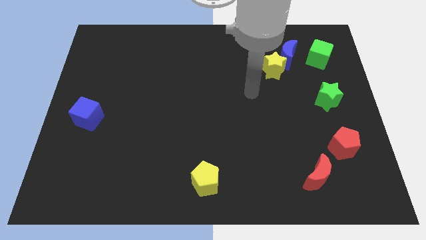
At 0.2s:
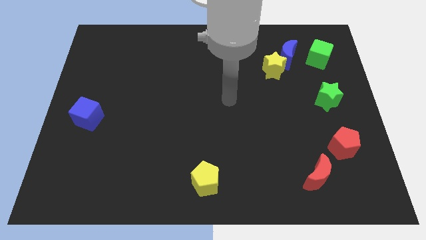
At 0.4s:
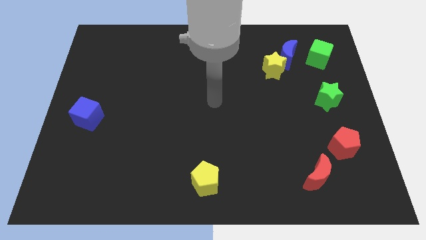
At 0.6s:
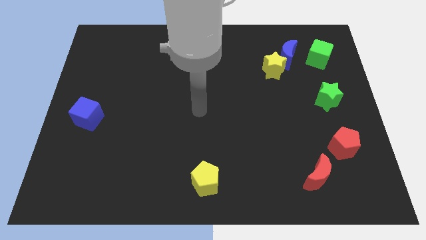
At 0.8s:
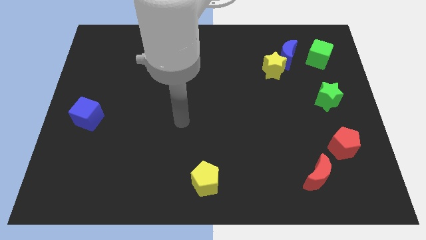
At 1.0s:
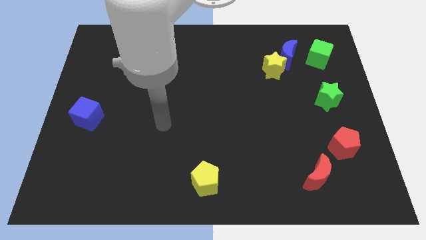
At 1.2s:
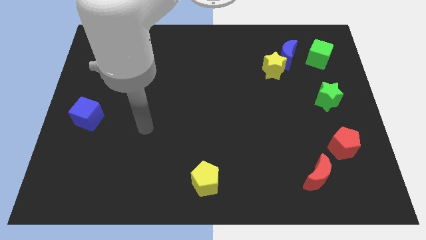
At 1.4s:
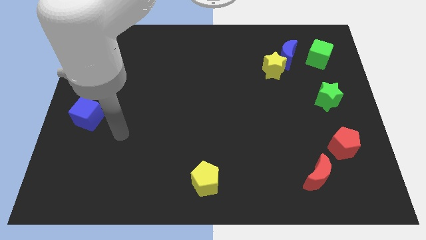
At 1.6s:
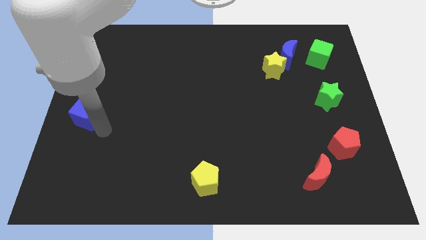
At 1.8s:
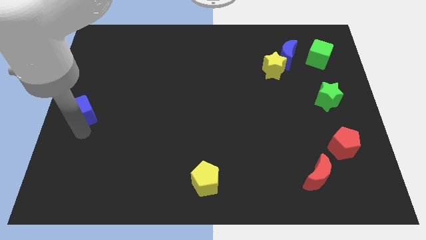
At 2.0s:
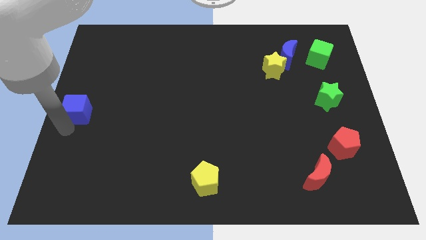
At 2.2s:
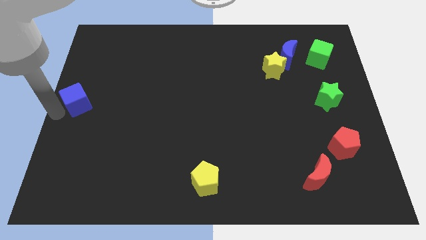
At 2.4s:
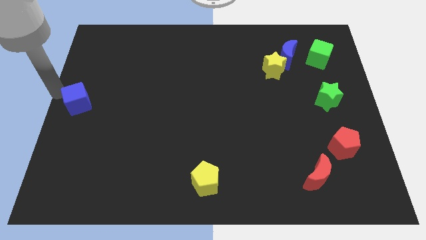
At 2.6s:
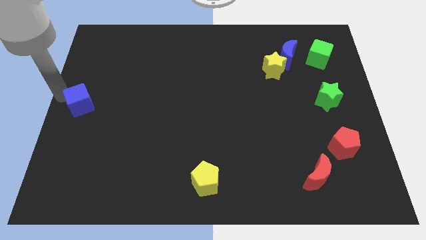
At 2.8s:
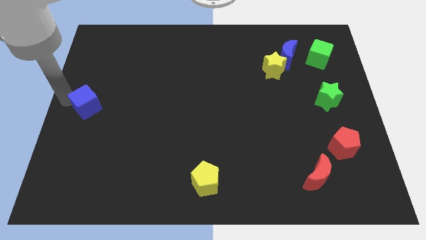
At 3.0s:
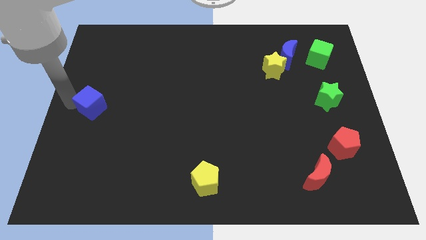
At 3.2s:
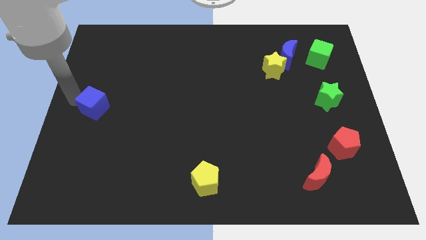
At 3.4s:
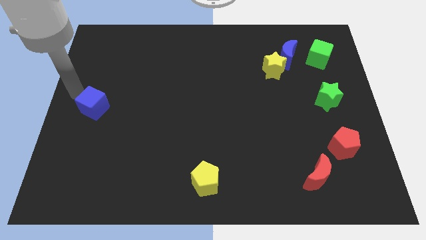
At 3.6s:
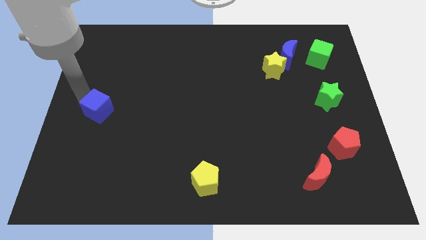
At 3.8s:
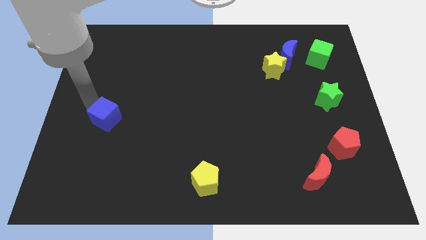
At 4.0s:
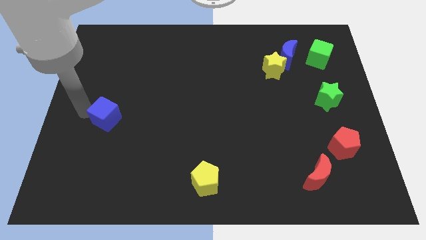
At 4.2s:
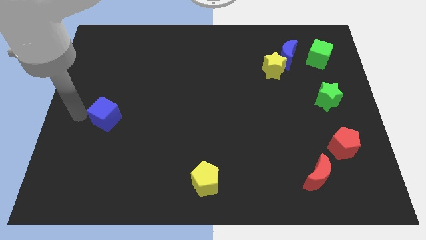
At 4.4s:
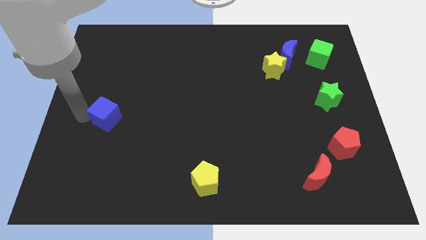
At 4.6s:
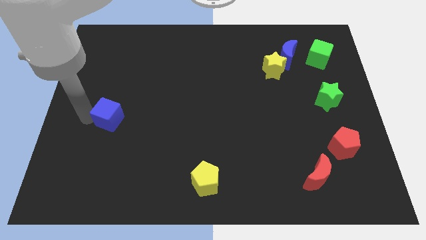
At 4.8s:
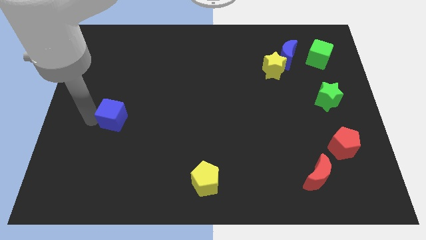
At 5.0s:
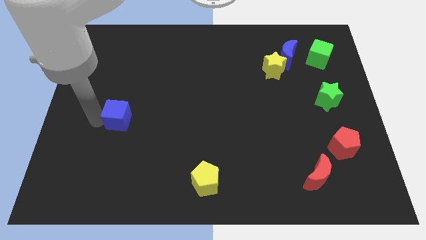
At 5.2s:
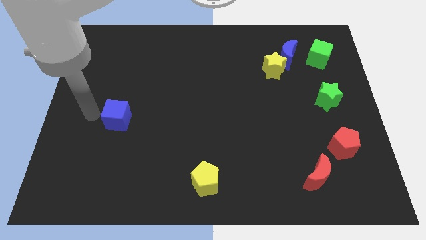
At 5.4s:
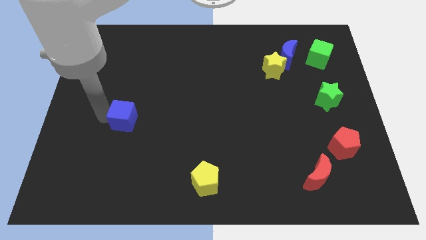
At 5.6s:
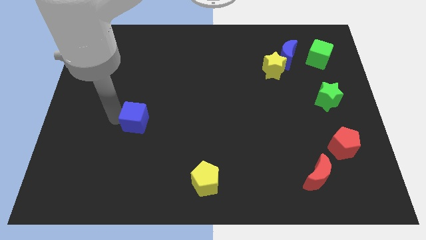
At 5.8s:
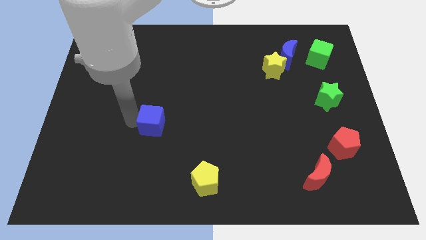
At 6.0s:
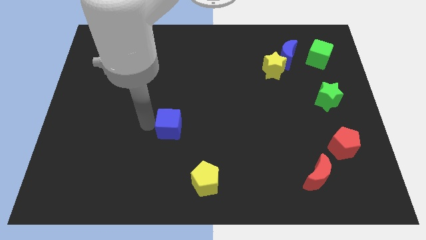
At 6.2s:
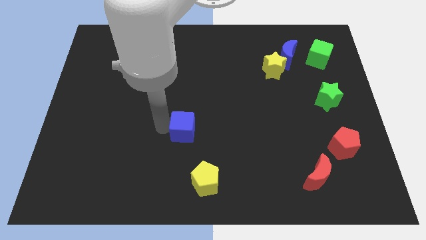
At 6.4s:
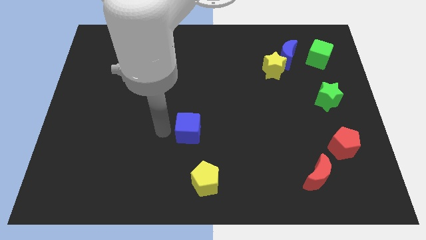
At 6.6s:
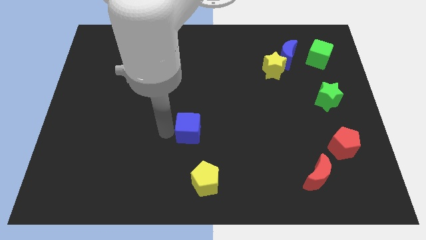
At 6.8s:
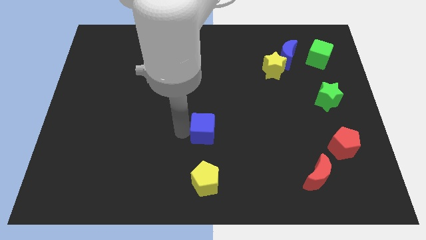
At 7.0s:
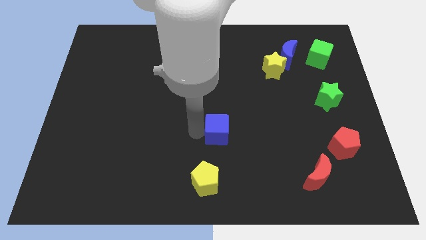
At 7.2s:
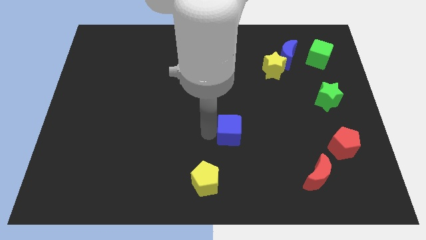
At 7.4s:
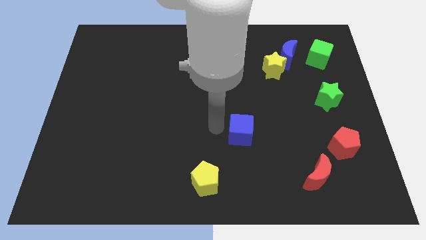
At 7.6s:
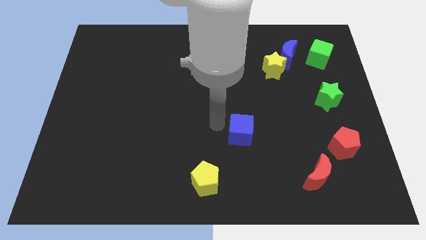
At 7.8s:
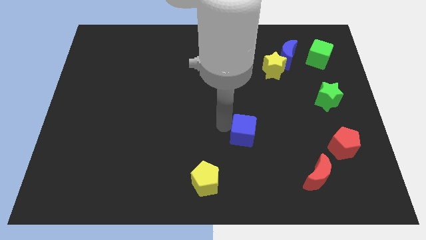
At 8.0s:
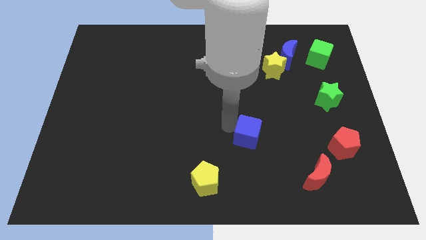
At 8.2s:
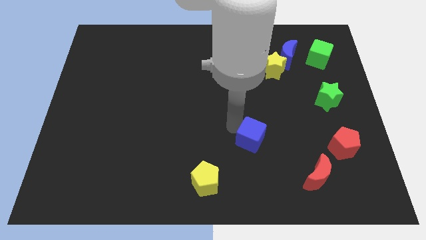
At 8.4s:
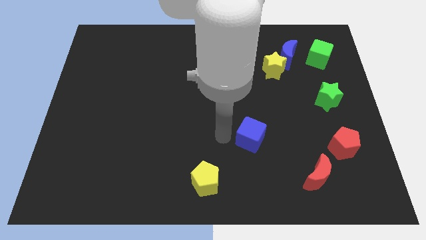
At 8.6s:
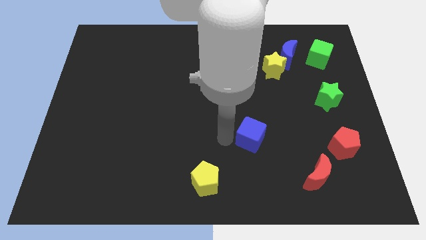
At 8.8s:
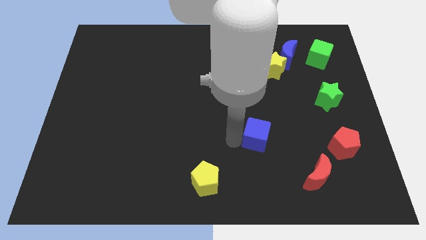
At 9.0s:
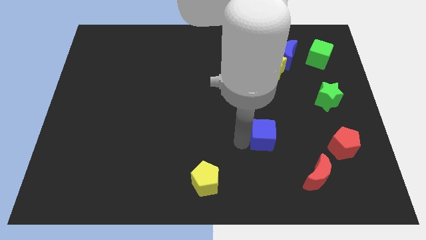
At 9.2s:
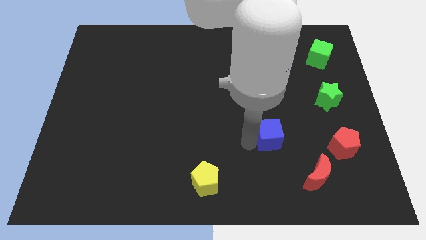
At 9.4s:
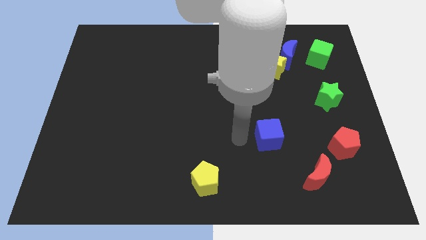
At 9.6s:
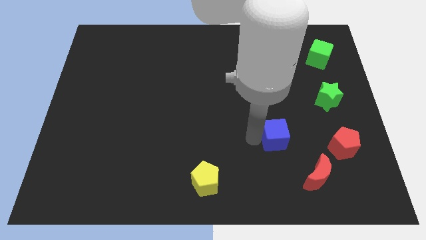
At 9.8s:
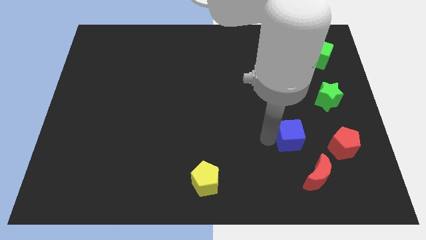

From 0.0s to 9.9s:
move the blue cube to the top of the red moon

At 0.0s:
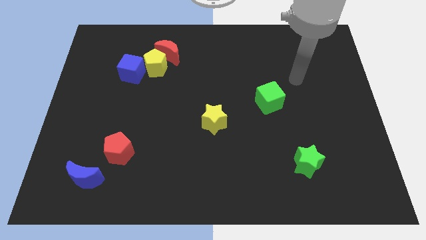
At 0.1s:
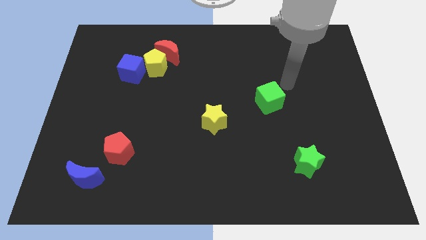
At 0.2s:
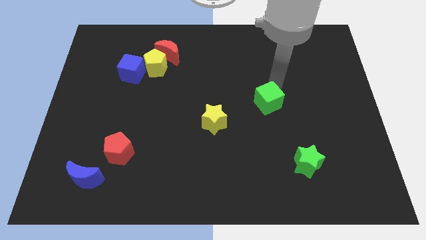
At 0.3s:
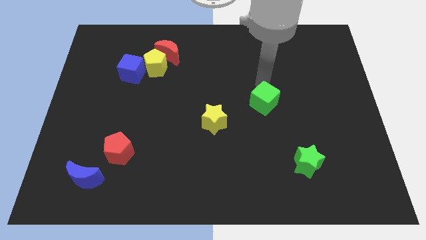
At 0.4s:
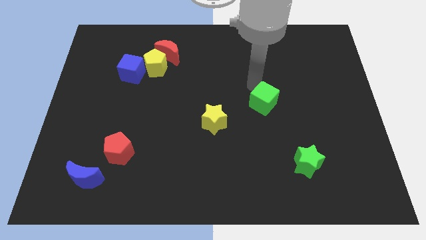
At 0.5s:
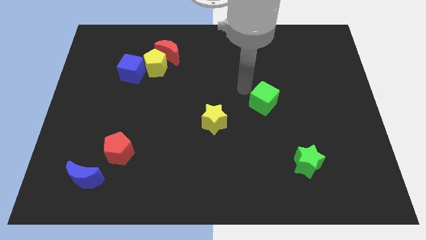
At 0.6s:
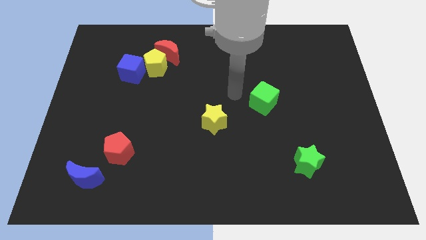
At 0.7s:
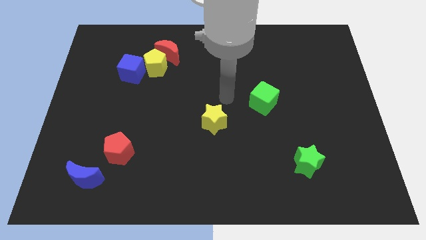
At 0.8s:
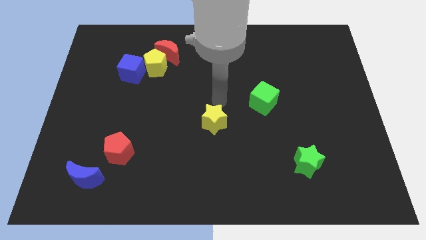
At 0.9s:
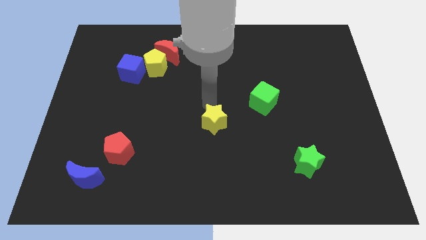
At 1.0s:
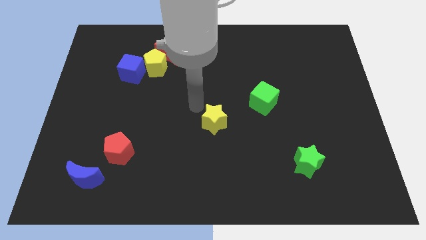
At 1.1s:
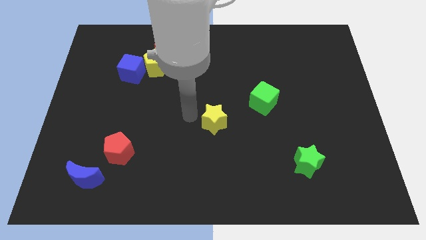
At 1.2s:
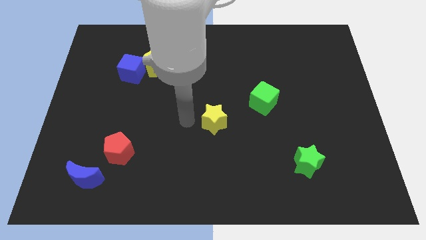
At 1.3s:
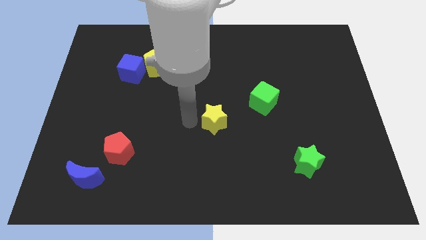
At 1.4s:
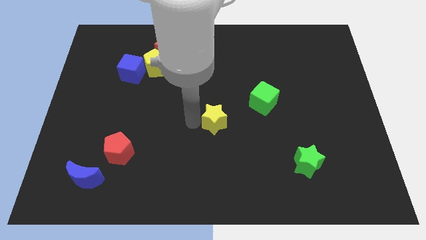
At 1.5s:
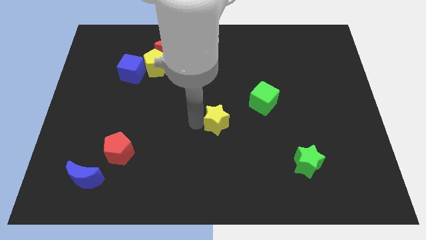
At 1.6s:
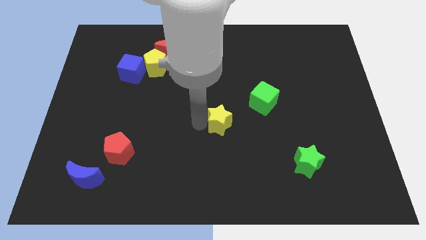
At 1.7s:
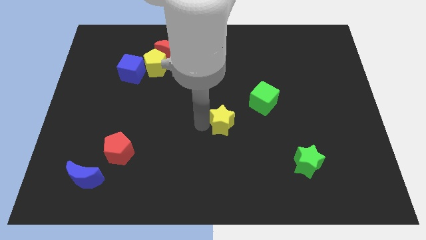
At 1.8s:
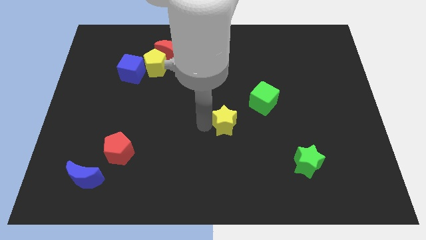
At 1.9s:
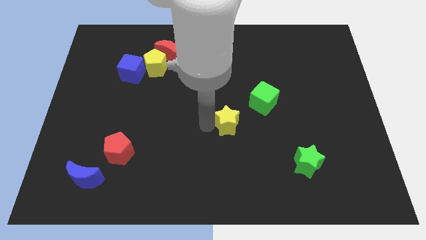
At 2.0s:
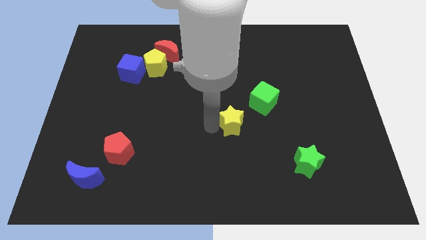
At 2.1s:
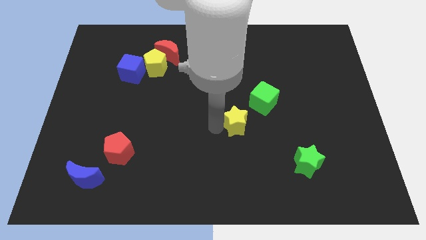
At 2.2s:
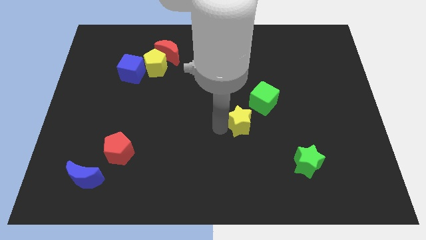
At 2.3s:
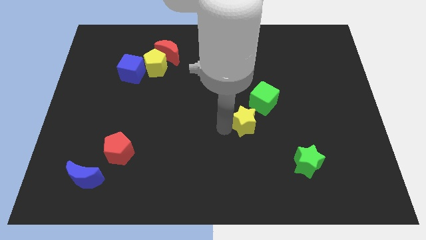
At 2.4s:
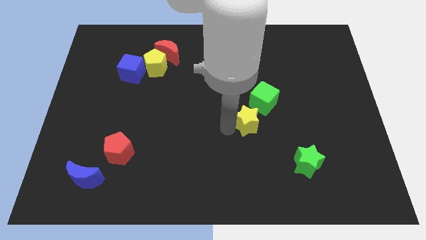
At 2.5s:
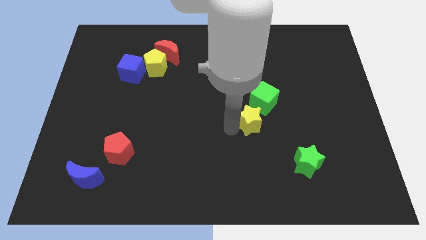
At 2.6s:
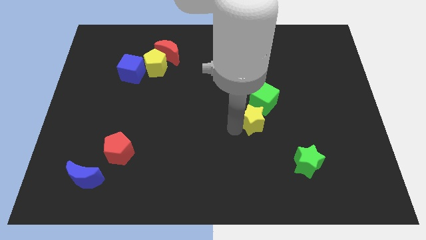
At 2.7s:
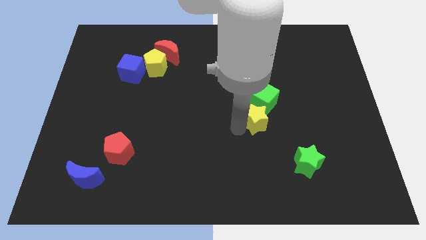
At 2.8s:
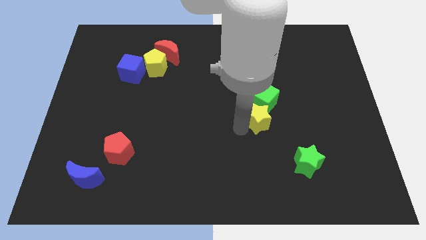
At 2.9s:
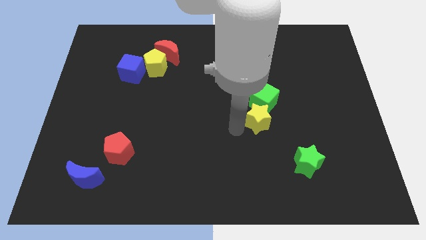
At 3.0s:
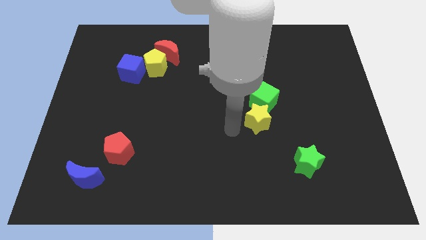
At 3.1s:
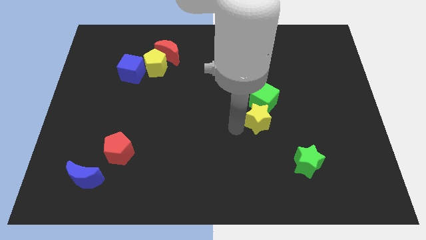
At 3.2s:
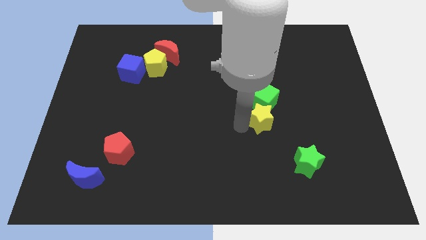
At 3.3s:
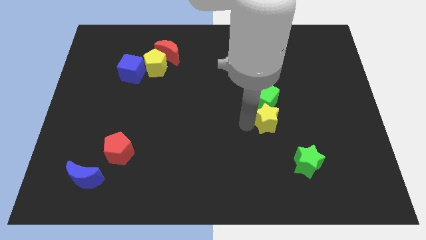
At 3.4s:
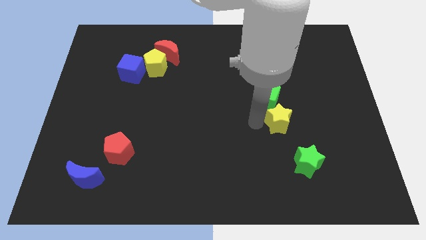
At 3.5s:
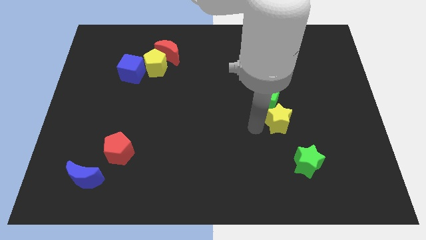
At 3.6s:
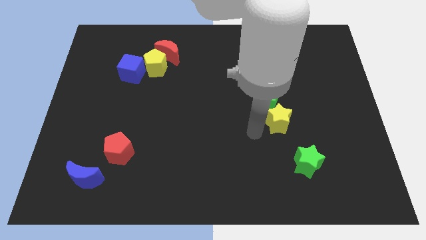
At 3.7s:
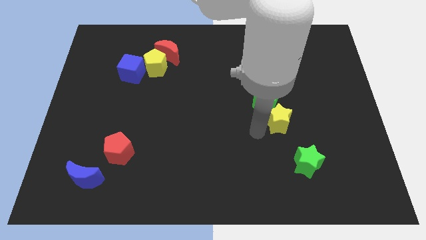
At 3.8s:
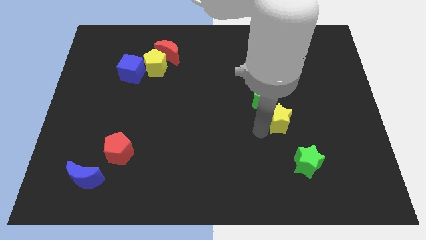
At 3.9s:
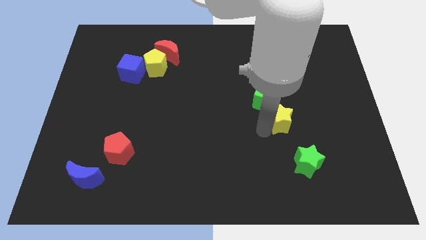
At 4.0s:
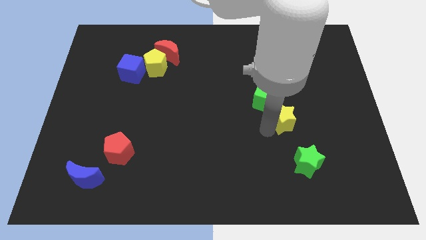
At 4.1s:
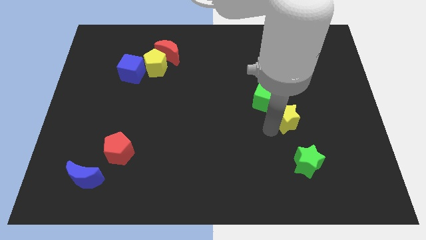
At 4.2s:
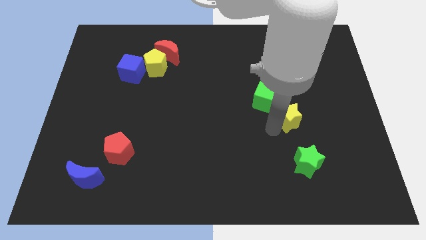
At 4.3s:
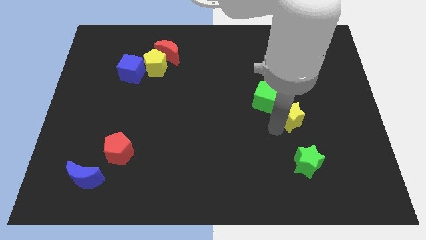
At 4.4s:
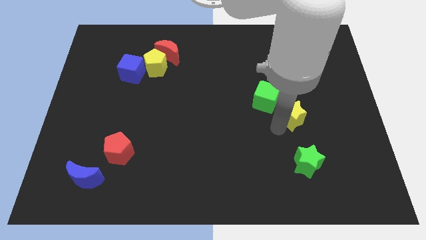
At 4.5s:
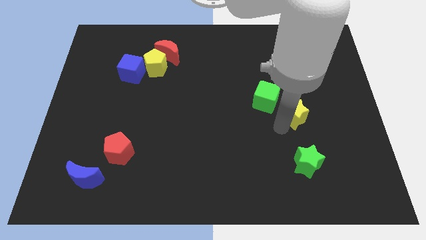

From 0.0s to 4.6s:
slide the yellow star to the right side of the green cube
